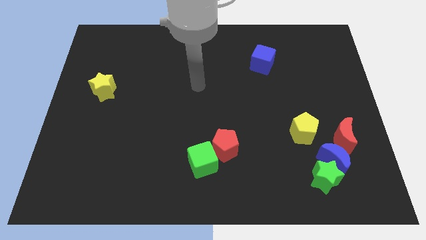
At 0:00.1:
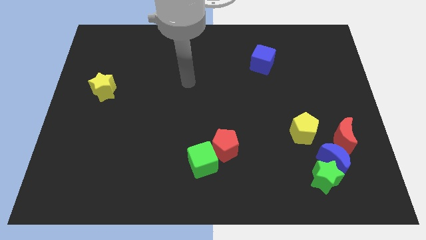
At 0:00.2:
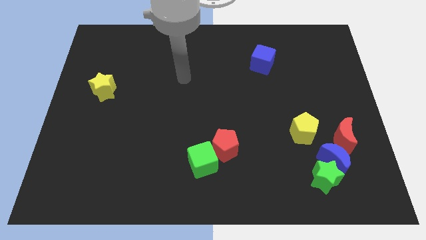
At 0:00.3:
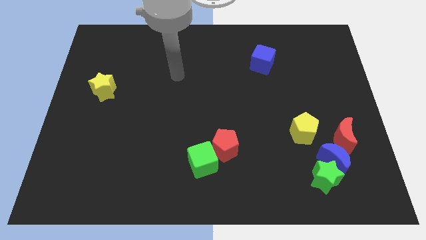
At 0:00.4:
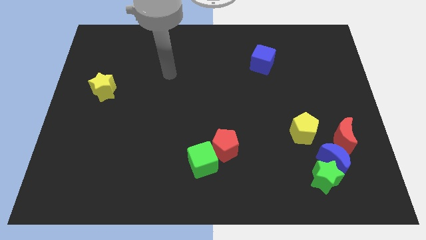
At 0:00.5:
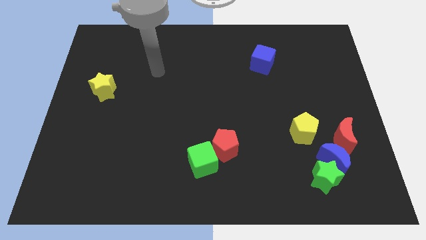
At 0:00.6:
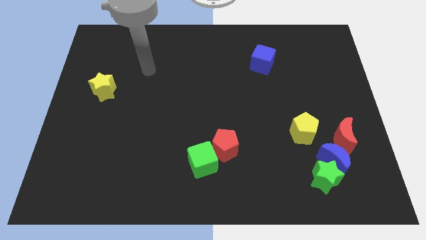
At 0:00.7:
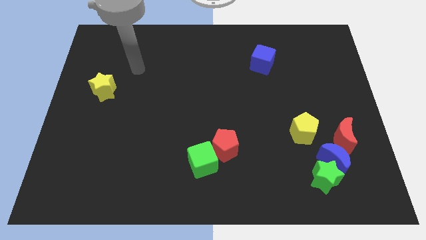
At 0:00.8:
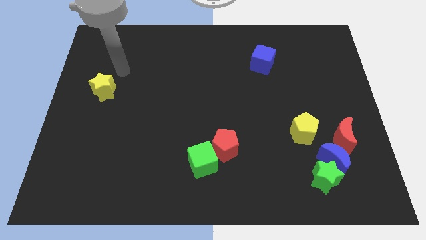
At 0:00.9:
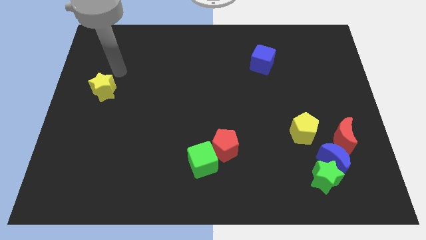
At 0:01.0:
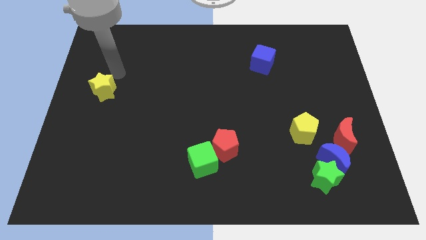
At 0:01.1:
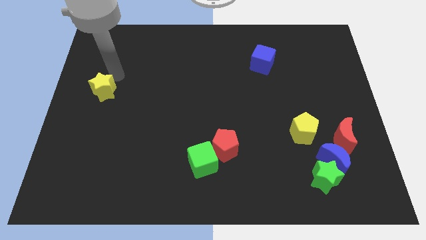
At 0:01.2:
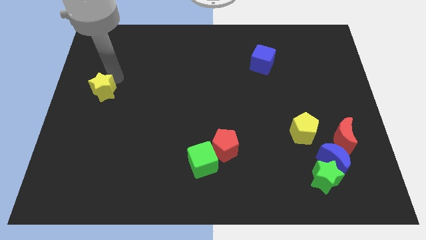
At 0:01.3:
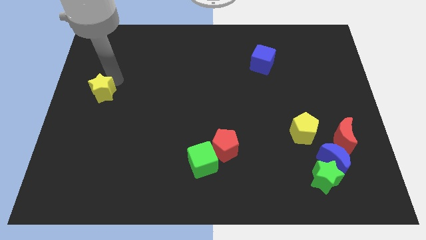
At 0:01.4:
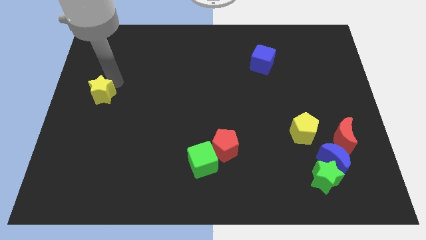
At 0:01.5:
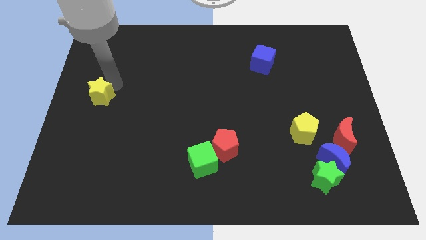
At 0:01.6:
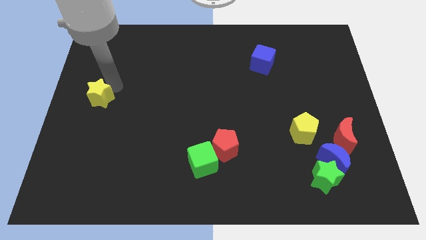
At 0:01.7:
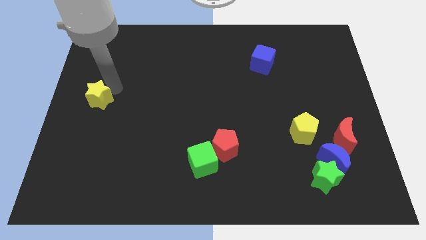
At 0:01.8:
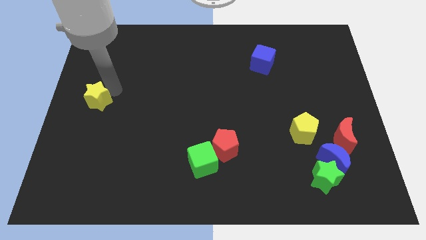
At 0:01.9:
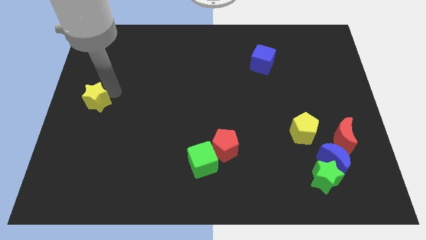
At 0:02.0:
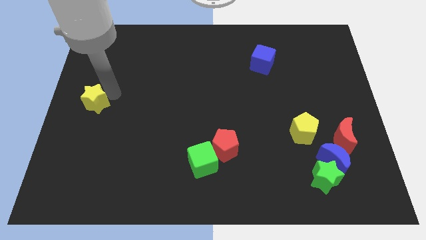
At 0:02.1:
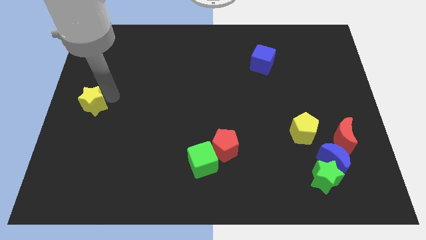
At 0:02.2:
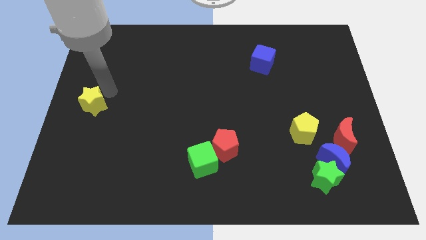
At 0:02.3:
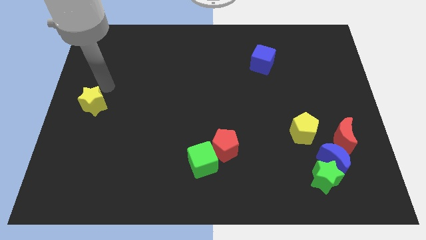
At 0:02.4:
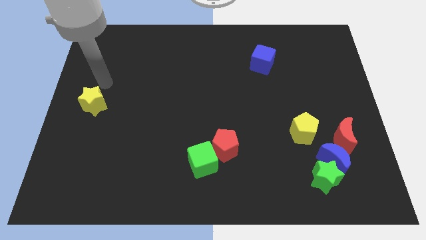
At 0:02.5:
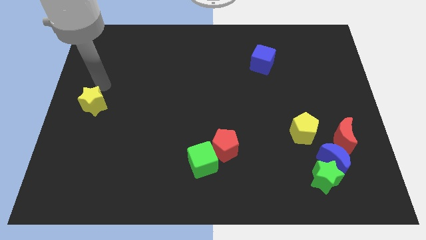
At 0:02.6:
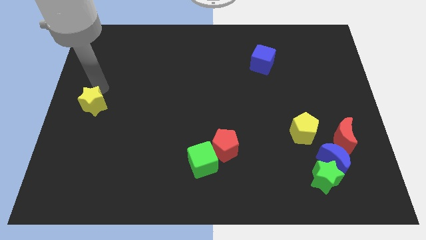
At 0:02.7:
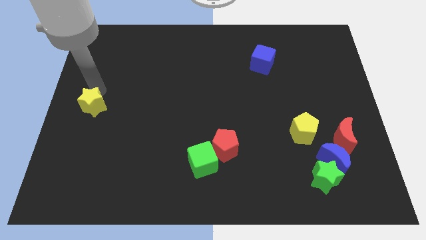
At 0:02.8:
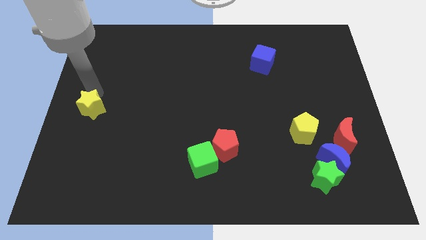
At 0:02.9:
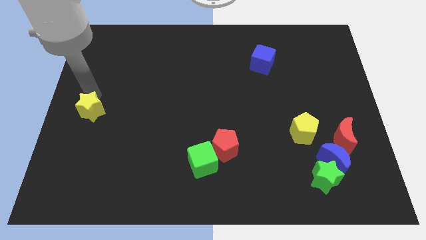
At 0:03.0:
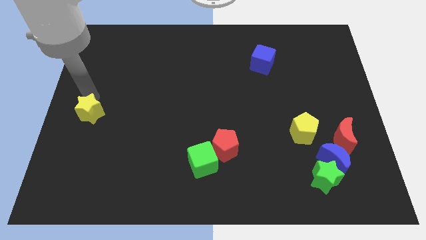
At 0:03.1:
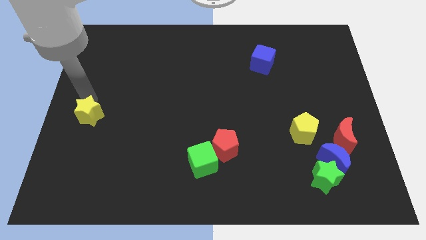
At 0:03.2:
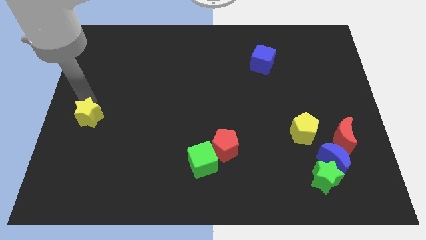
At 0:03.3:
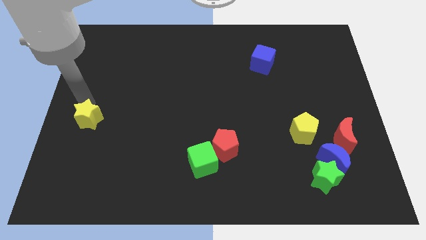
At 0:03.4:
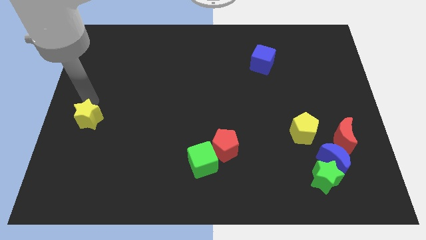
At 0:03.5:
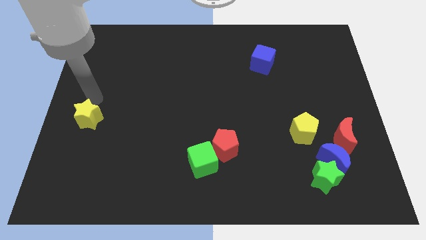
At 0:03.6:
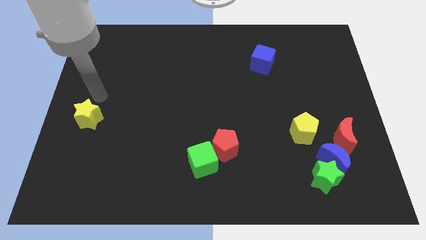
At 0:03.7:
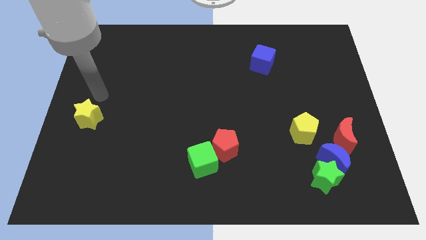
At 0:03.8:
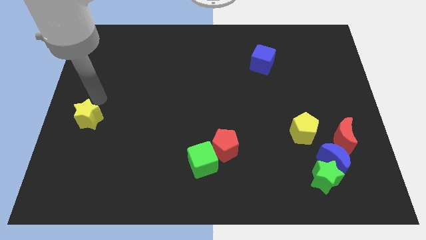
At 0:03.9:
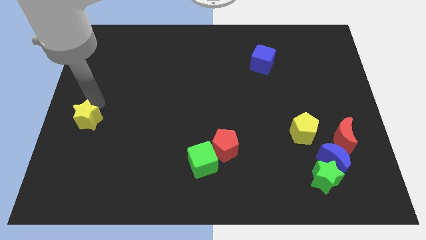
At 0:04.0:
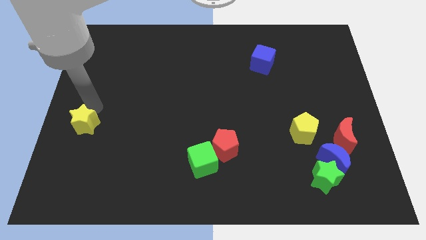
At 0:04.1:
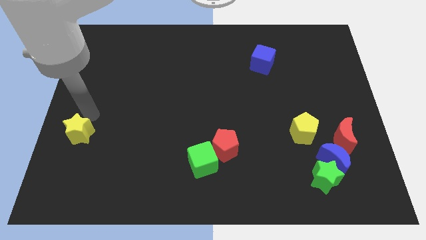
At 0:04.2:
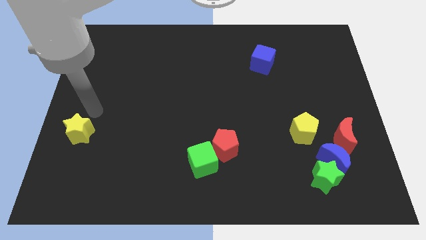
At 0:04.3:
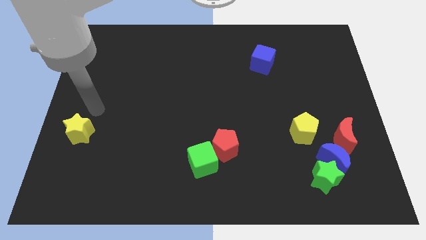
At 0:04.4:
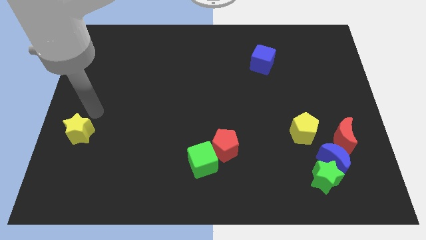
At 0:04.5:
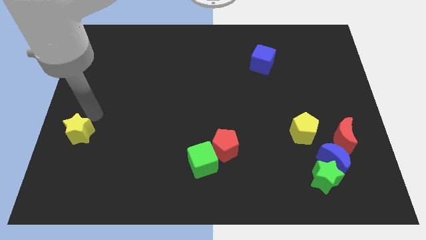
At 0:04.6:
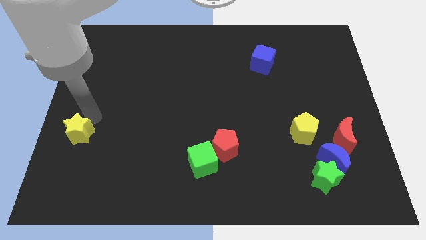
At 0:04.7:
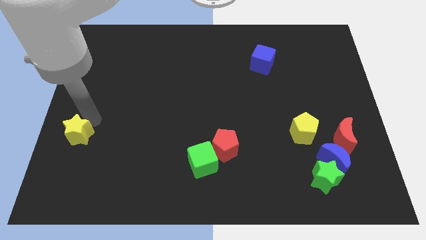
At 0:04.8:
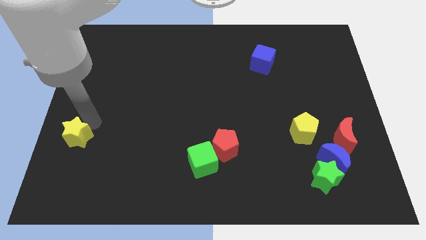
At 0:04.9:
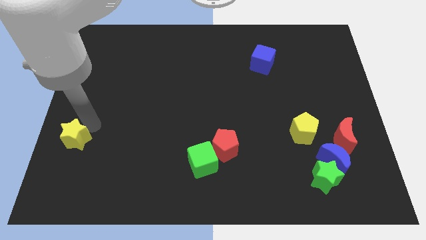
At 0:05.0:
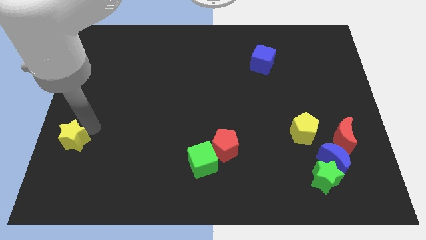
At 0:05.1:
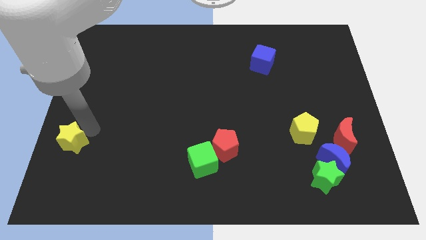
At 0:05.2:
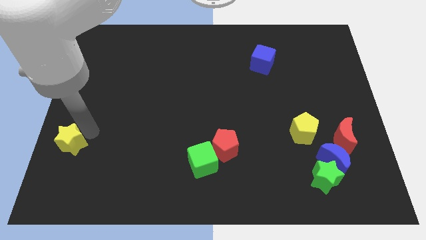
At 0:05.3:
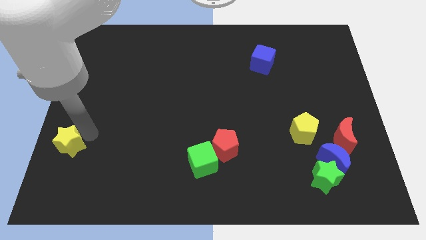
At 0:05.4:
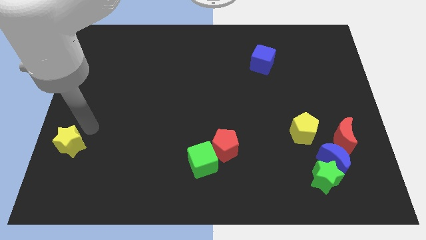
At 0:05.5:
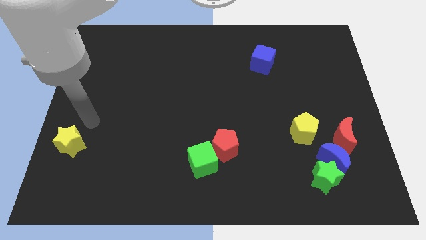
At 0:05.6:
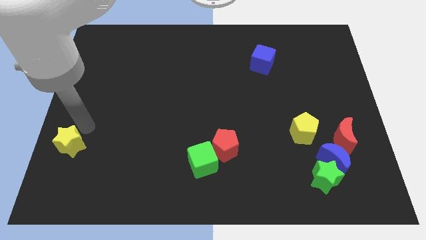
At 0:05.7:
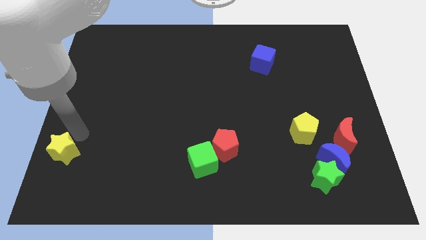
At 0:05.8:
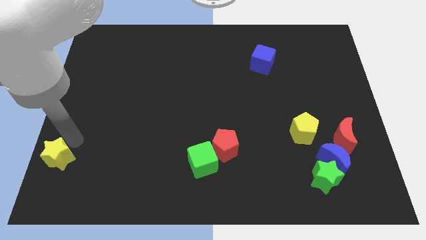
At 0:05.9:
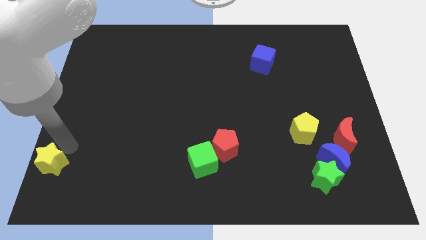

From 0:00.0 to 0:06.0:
slide the yellow star to the bottom left of the board

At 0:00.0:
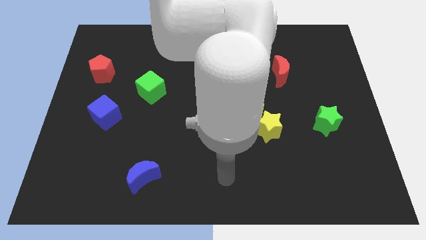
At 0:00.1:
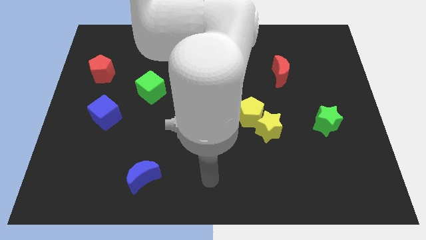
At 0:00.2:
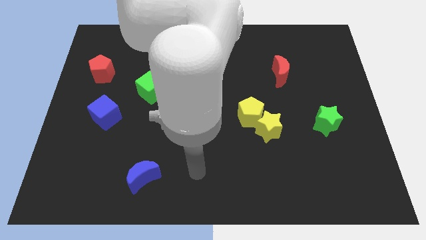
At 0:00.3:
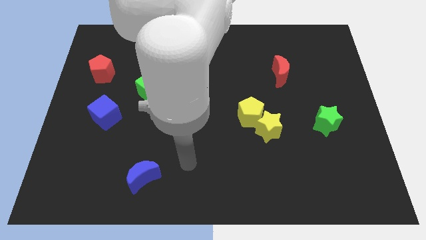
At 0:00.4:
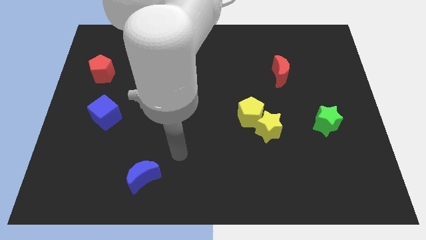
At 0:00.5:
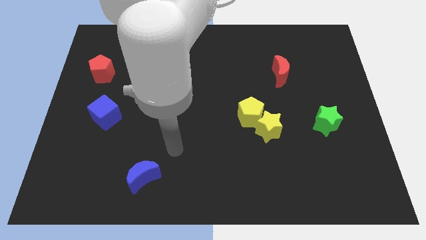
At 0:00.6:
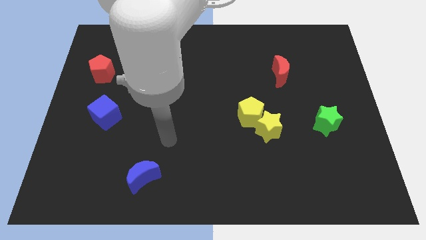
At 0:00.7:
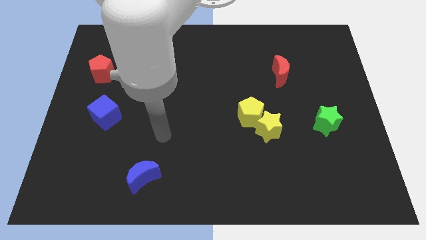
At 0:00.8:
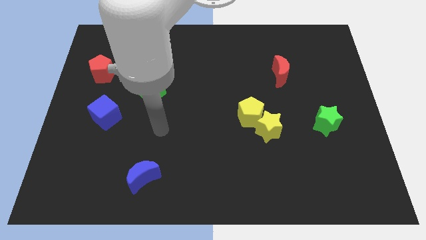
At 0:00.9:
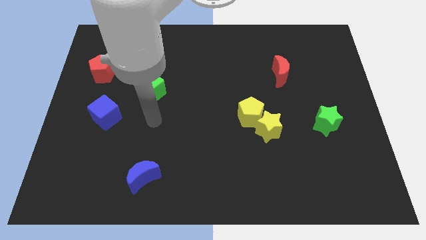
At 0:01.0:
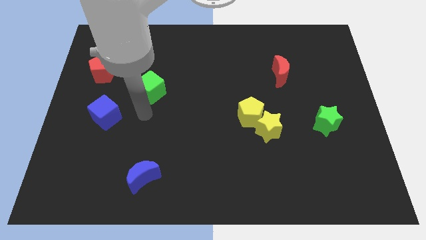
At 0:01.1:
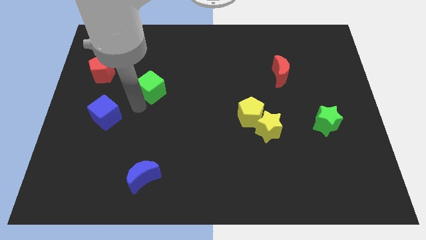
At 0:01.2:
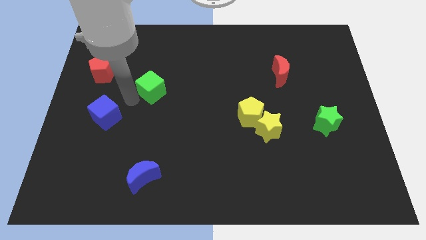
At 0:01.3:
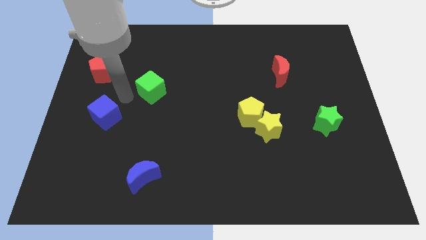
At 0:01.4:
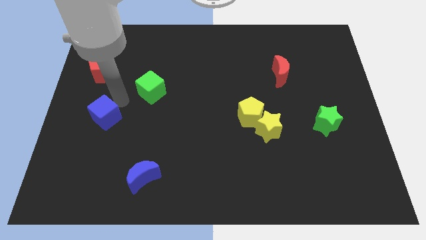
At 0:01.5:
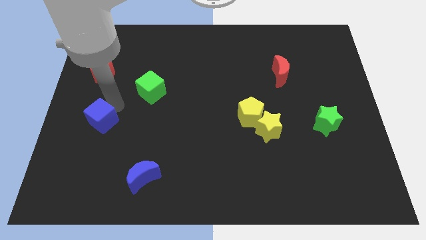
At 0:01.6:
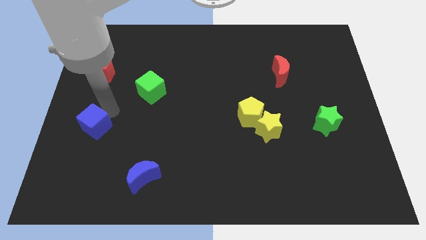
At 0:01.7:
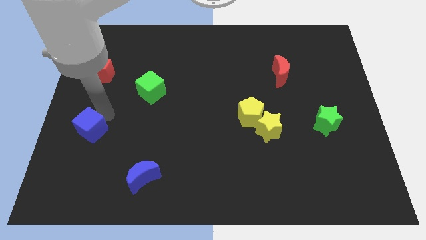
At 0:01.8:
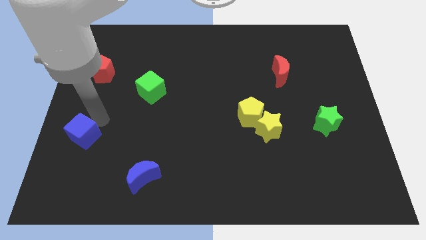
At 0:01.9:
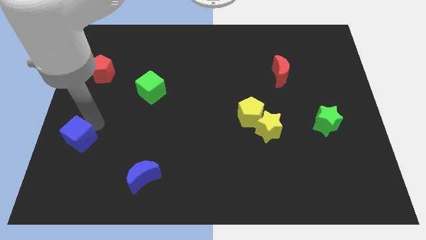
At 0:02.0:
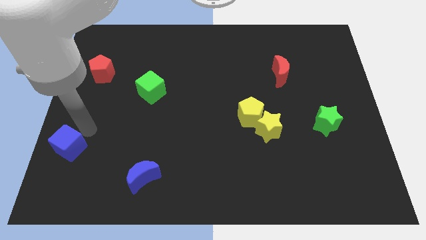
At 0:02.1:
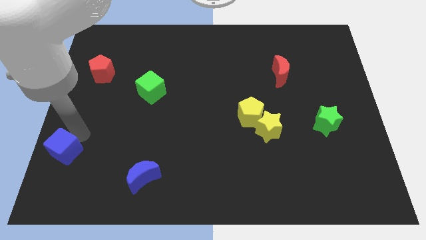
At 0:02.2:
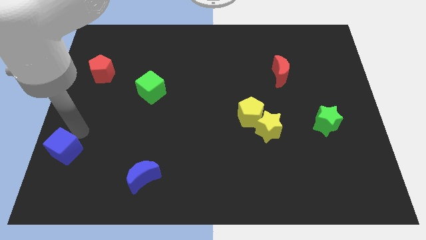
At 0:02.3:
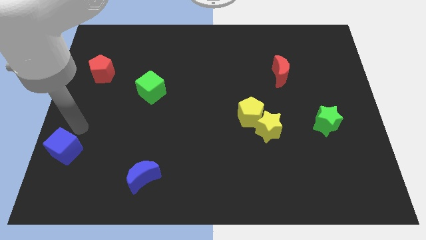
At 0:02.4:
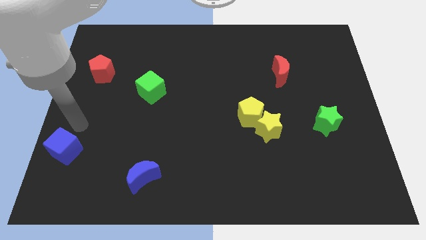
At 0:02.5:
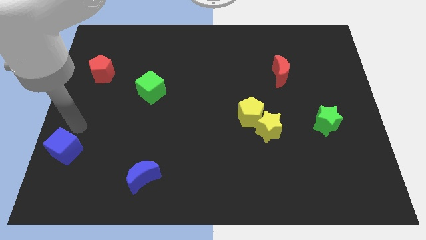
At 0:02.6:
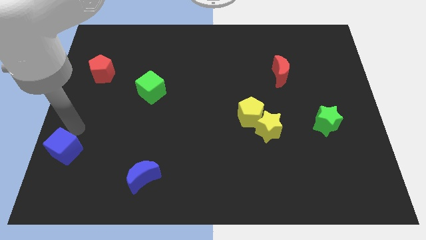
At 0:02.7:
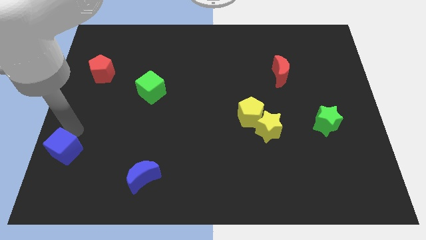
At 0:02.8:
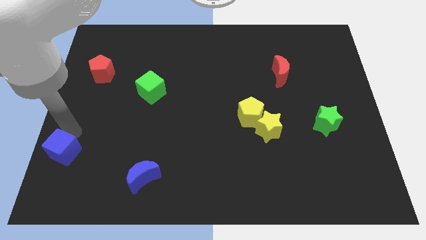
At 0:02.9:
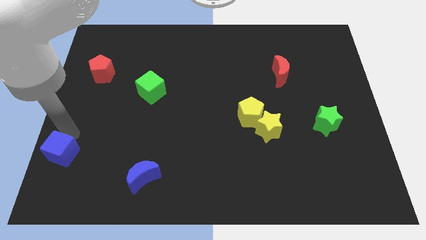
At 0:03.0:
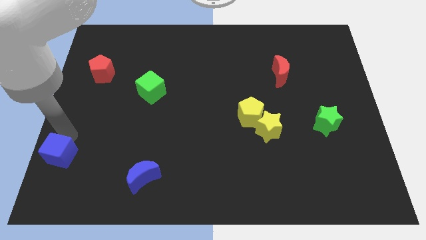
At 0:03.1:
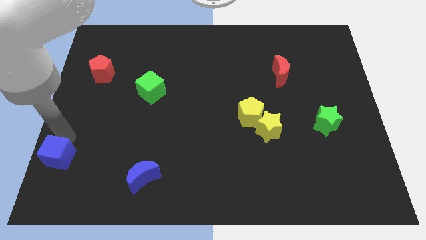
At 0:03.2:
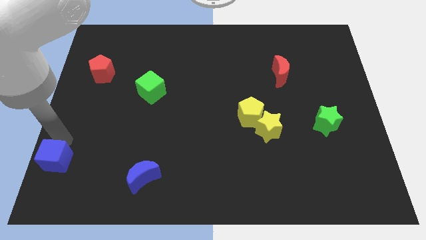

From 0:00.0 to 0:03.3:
push the blue cube to the bottom left of the board
